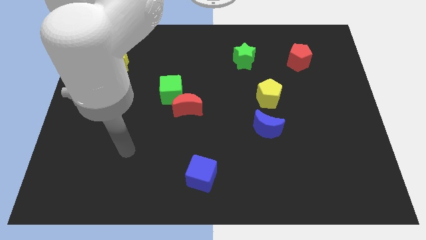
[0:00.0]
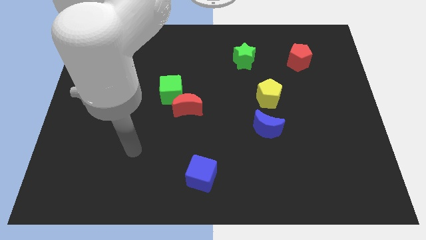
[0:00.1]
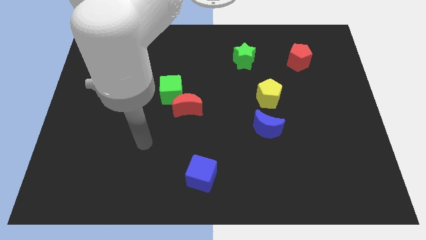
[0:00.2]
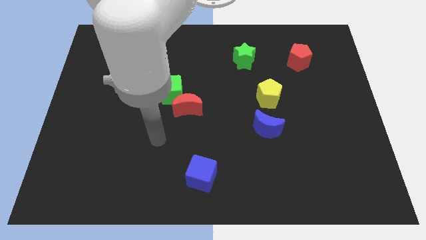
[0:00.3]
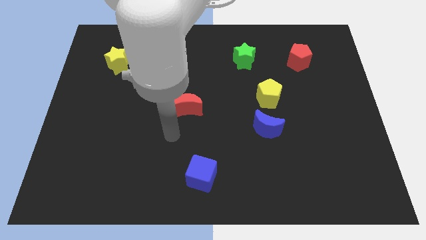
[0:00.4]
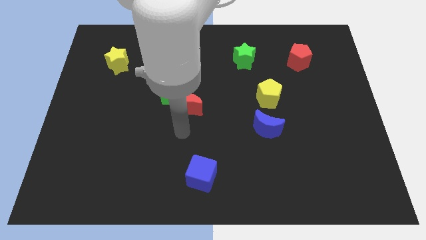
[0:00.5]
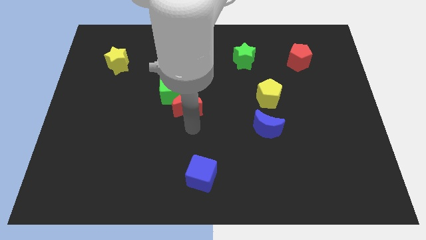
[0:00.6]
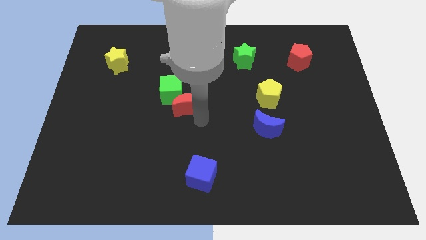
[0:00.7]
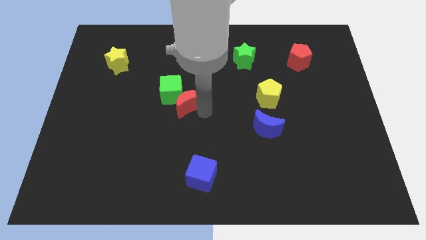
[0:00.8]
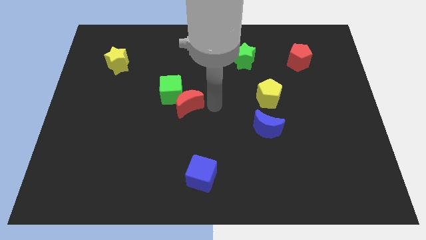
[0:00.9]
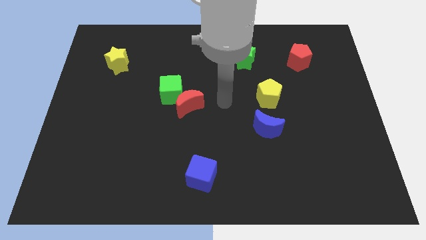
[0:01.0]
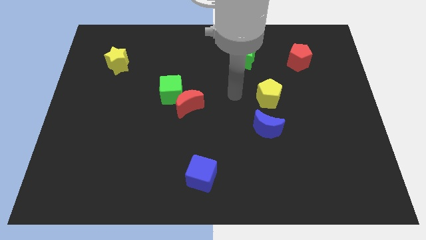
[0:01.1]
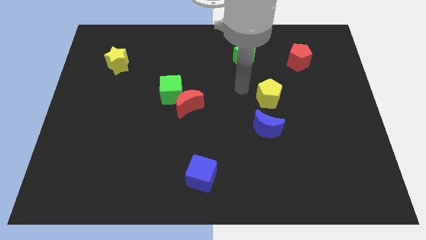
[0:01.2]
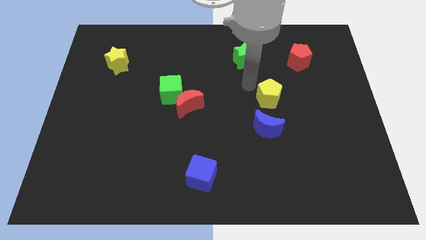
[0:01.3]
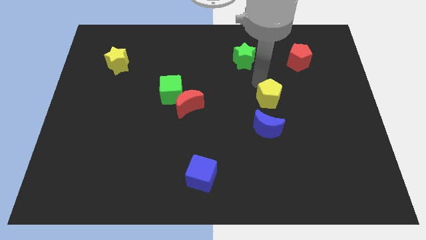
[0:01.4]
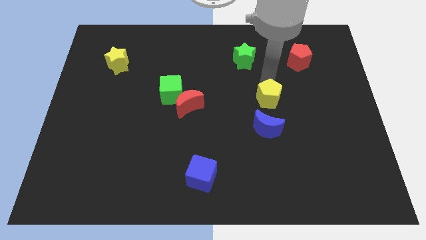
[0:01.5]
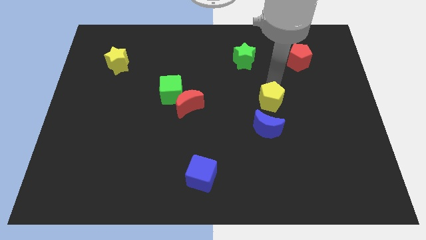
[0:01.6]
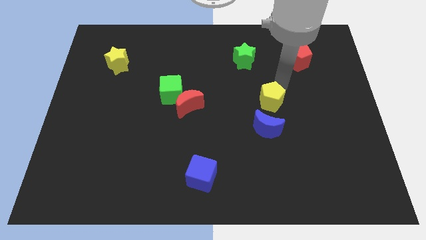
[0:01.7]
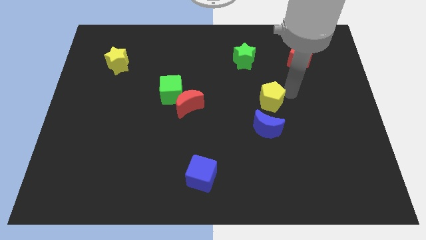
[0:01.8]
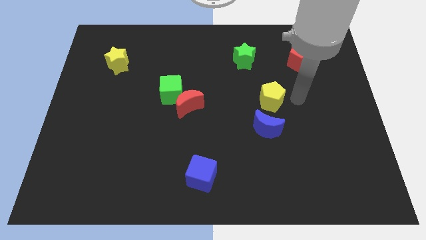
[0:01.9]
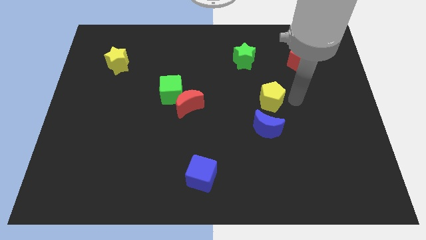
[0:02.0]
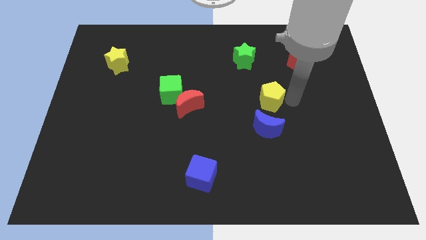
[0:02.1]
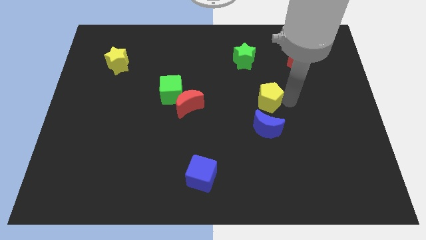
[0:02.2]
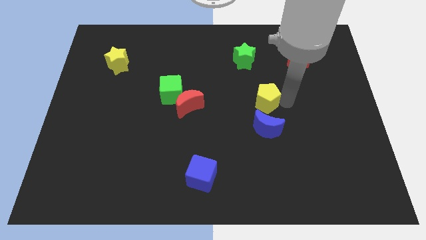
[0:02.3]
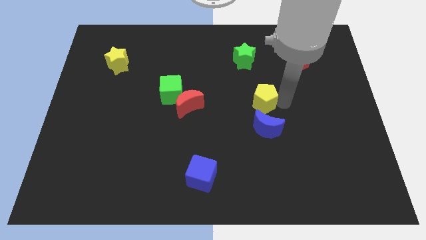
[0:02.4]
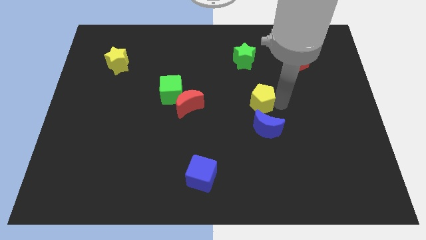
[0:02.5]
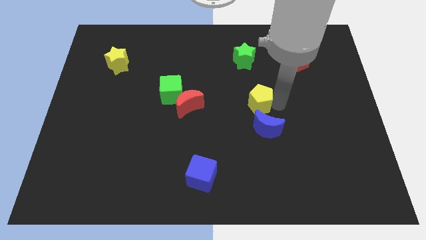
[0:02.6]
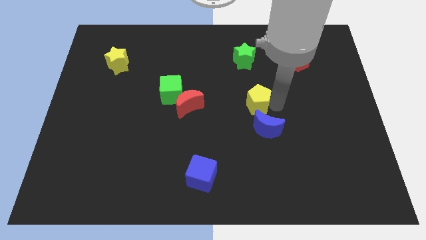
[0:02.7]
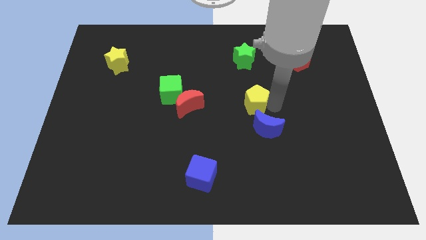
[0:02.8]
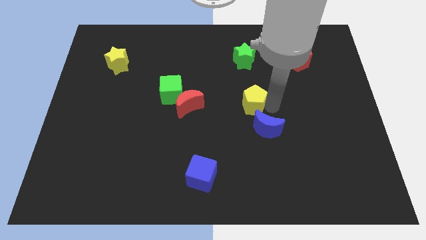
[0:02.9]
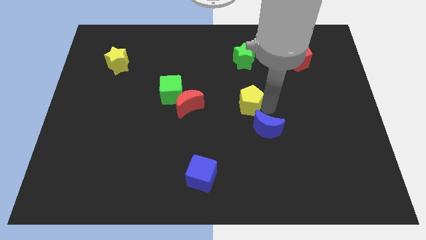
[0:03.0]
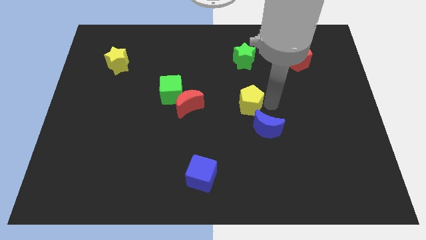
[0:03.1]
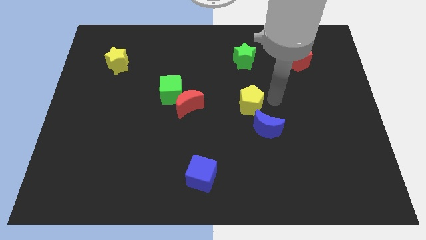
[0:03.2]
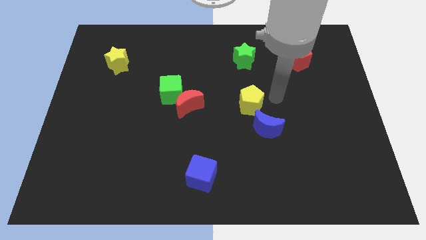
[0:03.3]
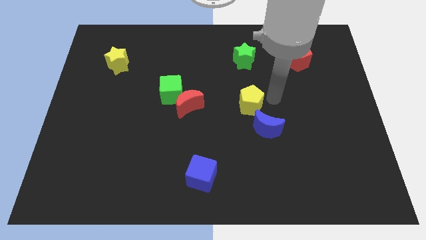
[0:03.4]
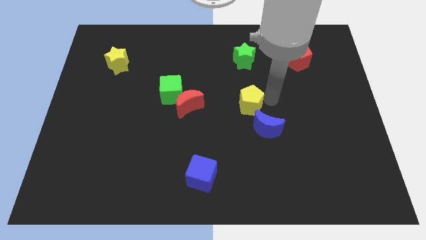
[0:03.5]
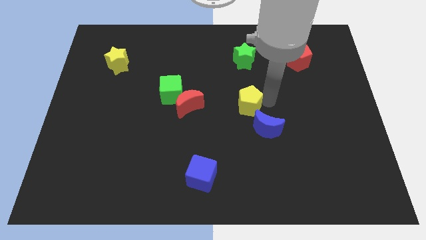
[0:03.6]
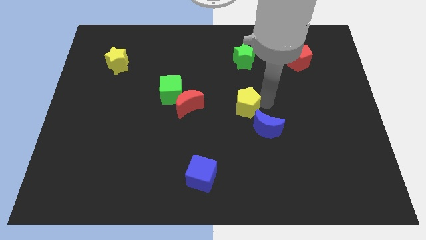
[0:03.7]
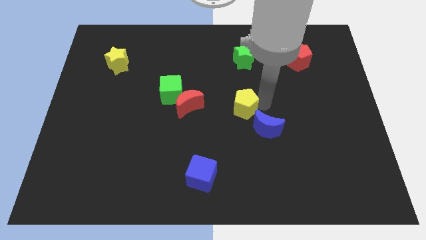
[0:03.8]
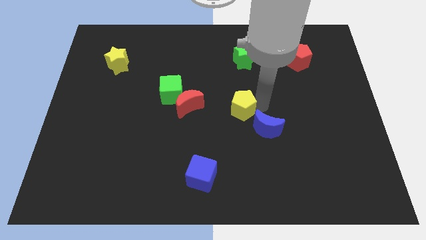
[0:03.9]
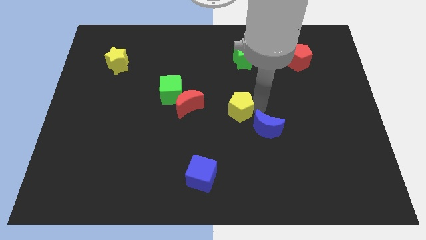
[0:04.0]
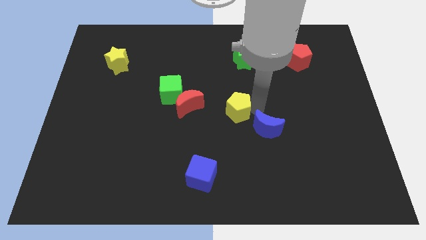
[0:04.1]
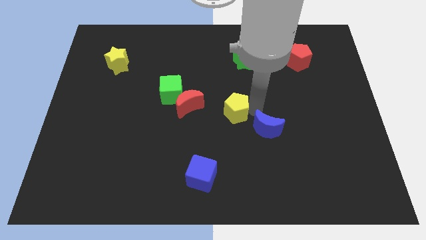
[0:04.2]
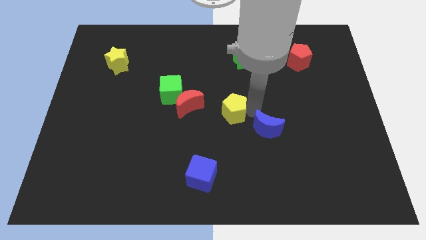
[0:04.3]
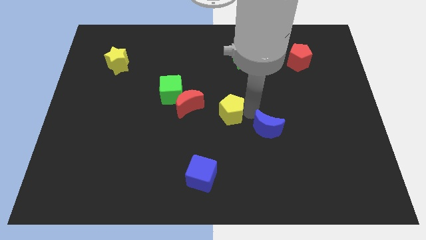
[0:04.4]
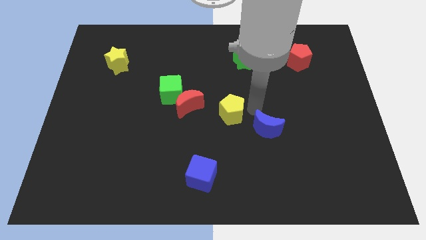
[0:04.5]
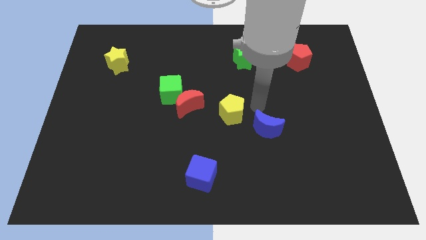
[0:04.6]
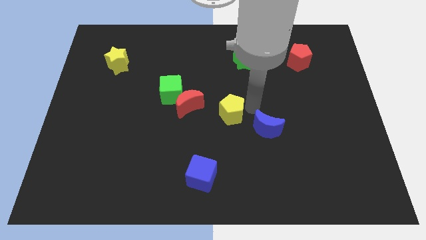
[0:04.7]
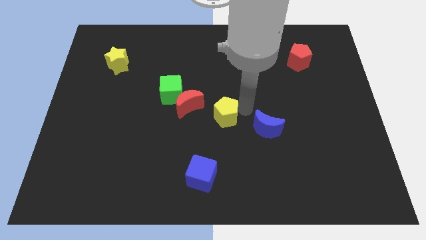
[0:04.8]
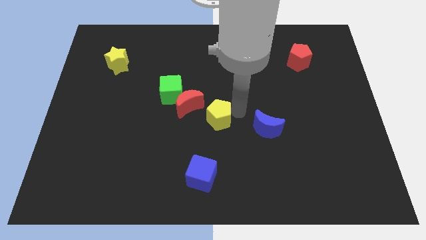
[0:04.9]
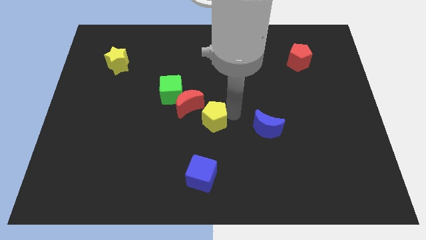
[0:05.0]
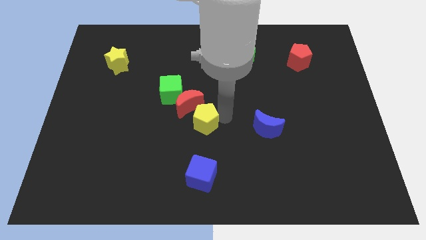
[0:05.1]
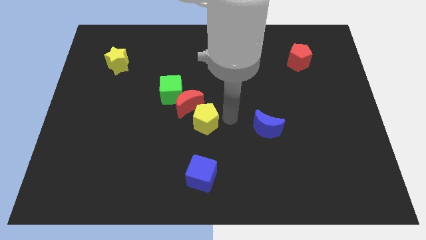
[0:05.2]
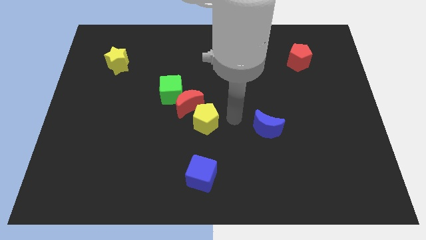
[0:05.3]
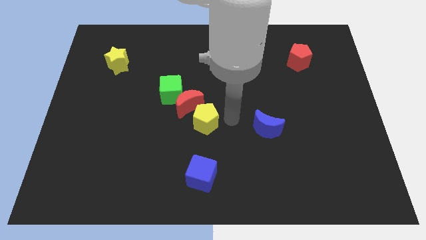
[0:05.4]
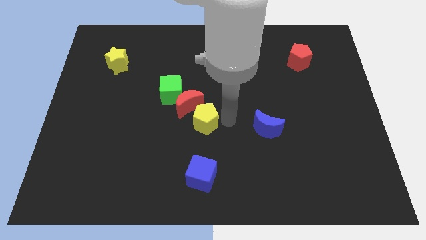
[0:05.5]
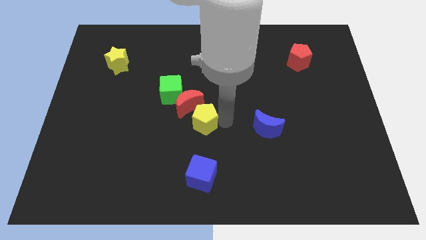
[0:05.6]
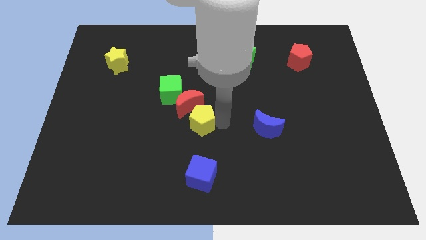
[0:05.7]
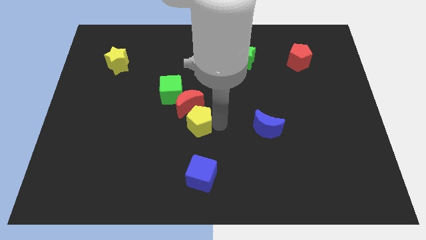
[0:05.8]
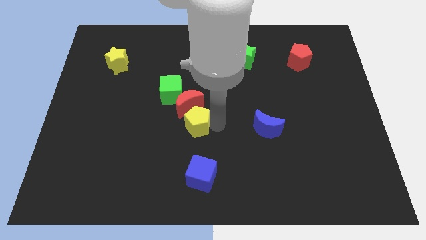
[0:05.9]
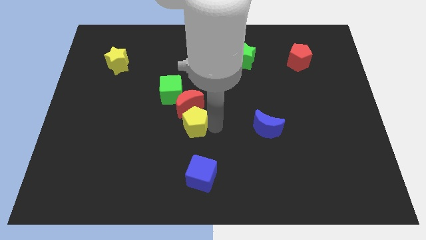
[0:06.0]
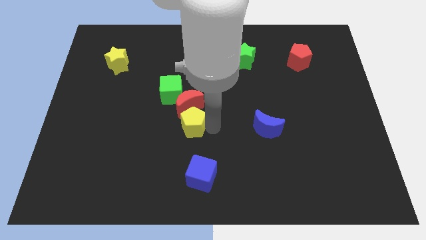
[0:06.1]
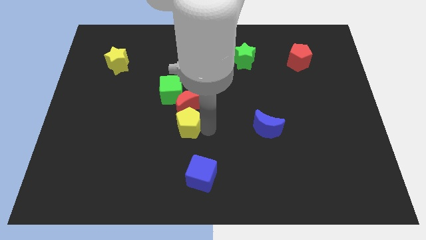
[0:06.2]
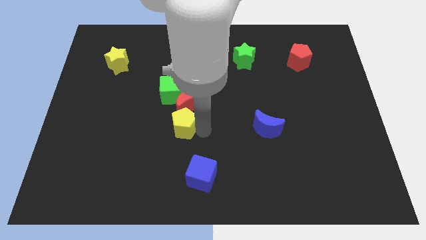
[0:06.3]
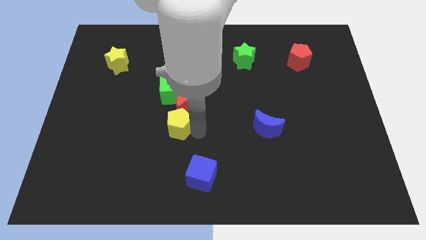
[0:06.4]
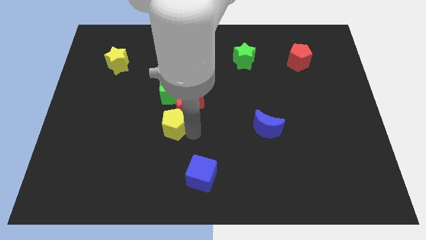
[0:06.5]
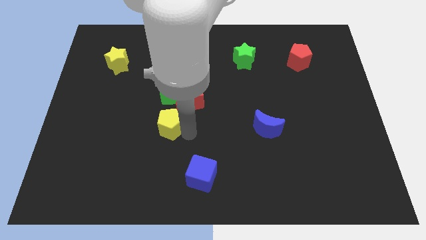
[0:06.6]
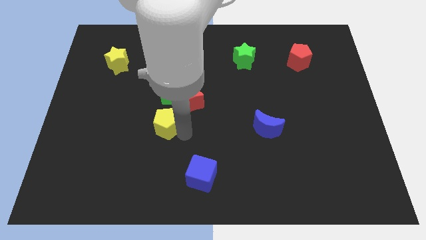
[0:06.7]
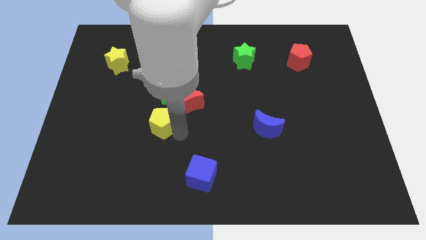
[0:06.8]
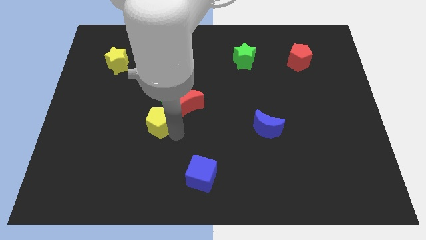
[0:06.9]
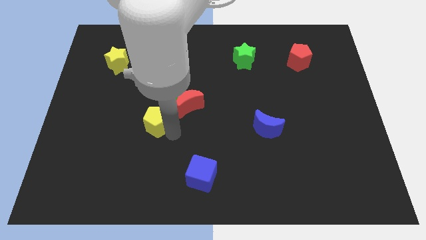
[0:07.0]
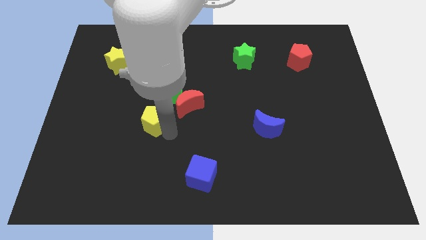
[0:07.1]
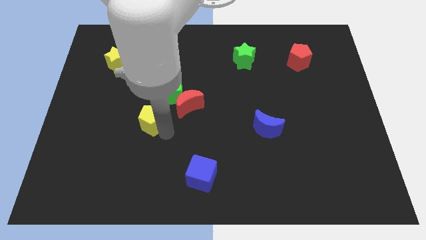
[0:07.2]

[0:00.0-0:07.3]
put the yellow pentagon just left of the red moon

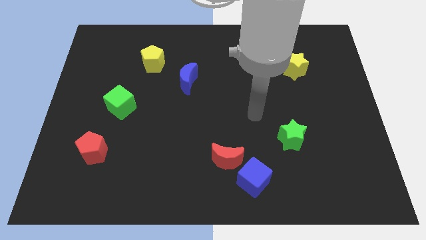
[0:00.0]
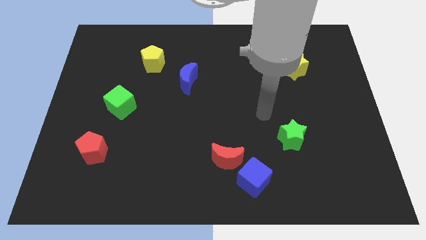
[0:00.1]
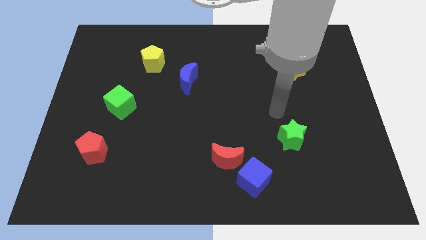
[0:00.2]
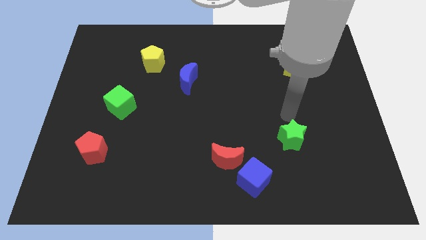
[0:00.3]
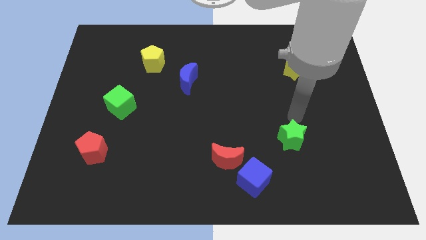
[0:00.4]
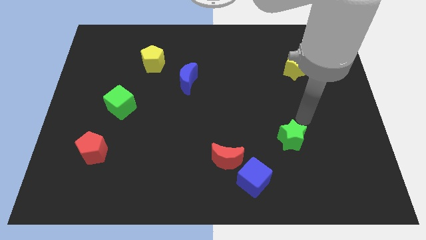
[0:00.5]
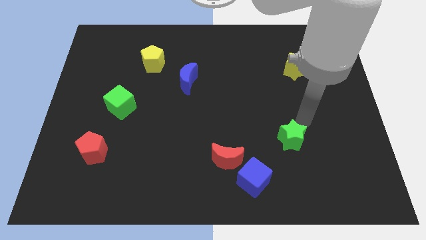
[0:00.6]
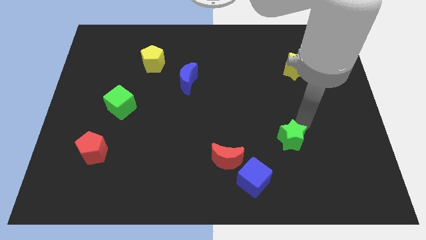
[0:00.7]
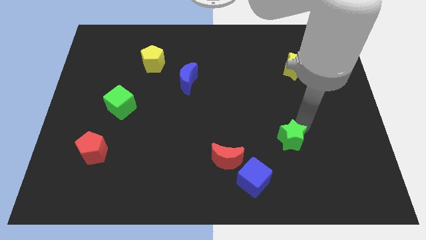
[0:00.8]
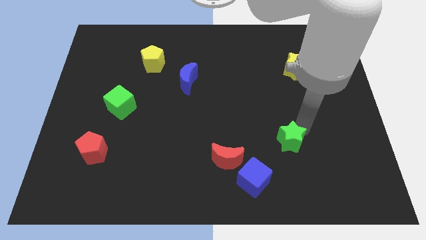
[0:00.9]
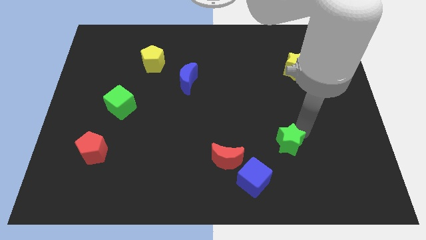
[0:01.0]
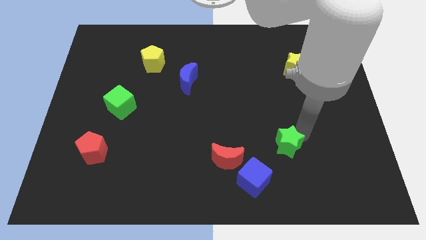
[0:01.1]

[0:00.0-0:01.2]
push the green star right of the red moon
